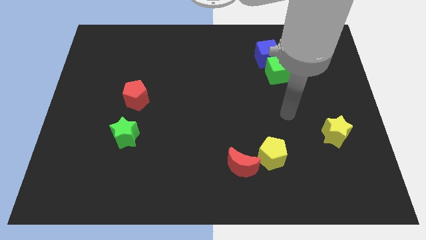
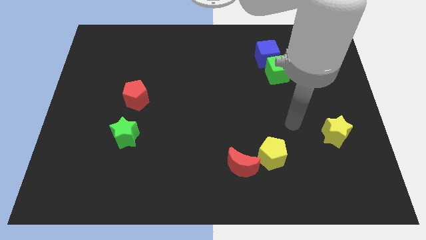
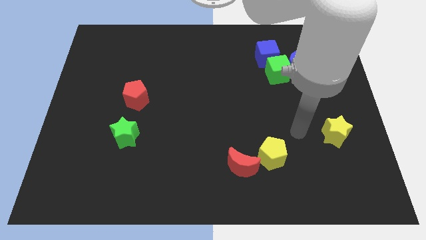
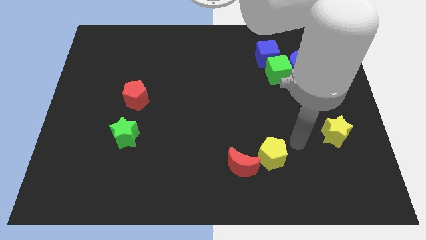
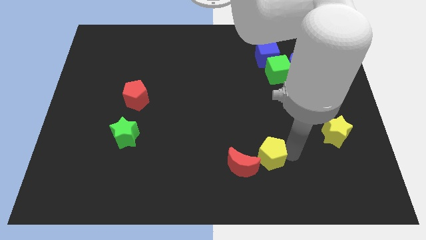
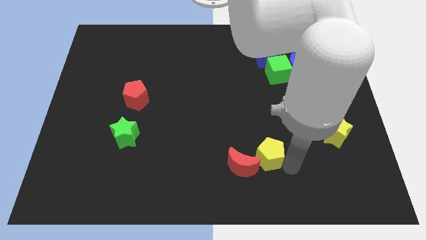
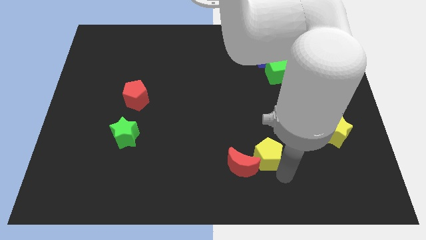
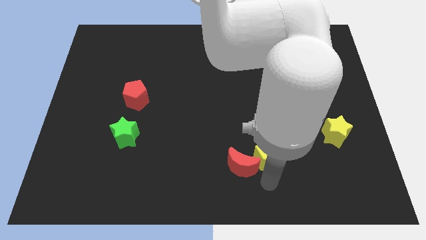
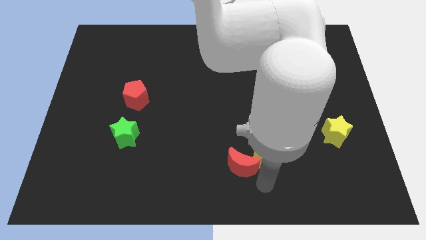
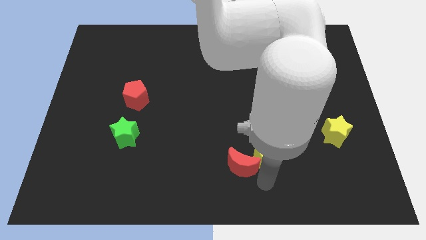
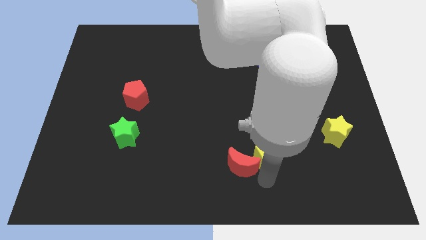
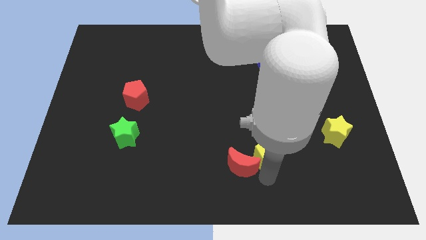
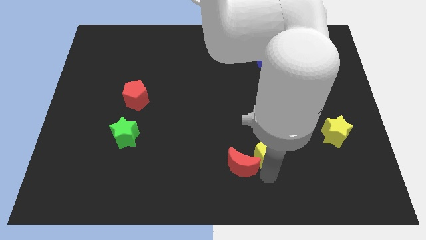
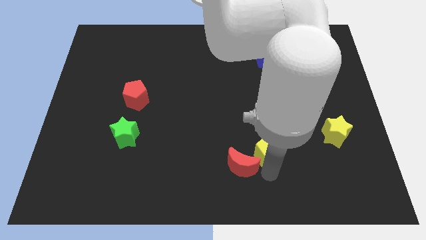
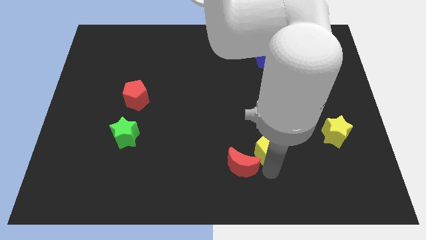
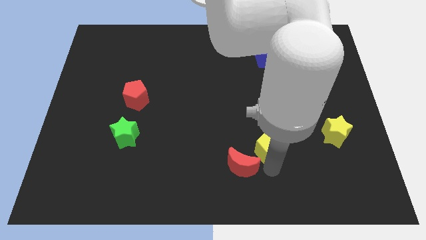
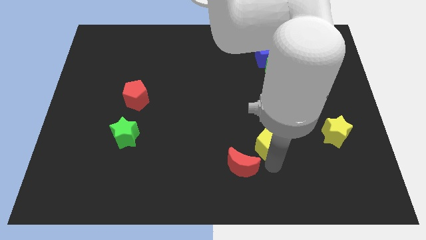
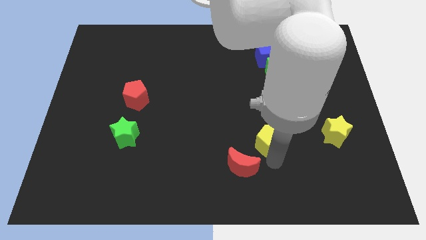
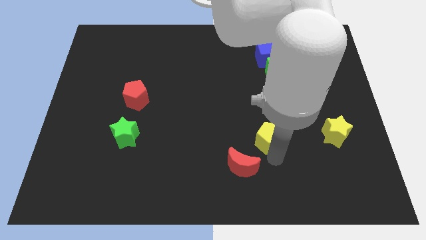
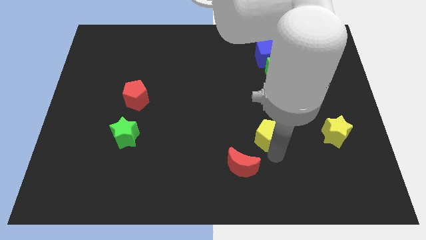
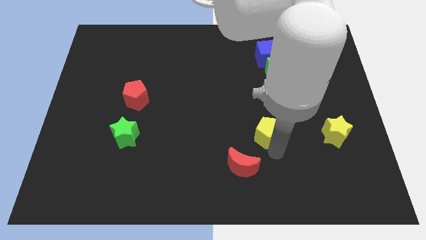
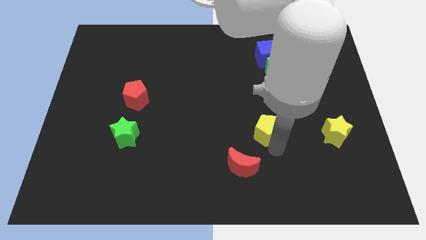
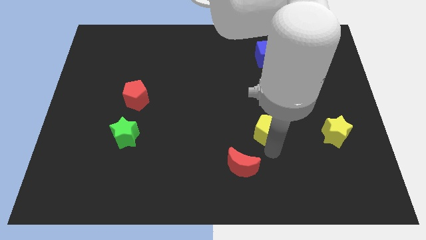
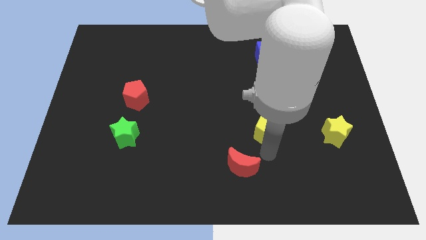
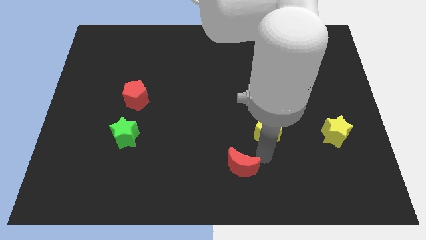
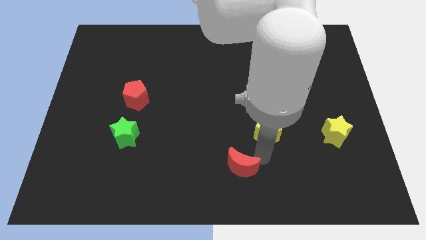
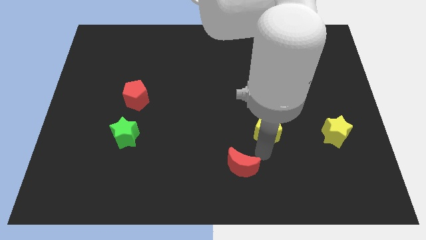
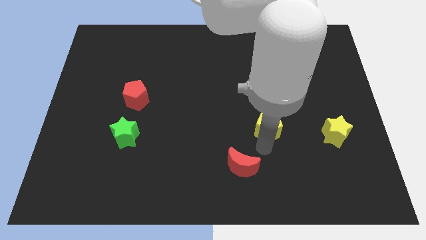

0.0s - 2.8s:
slightly push the yellow pentagon up

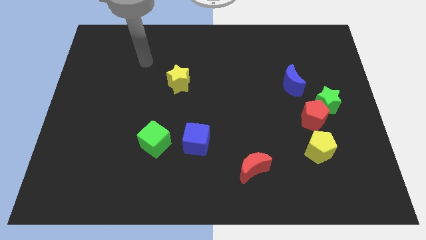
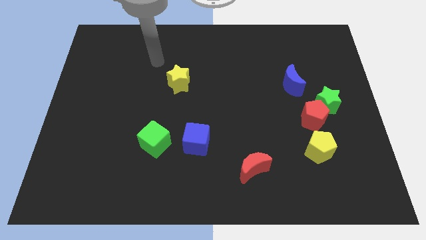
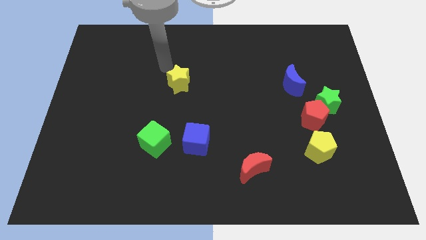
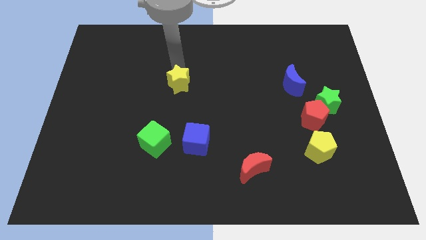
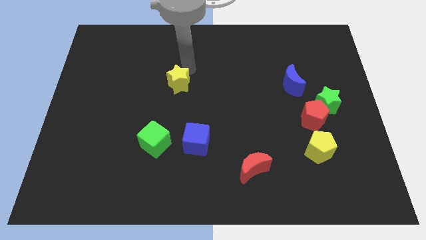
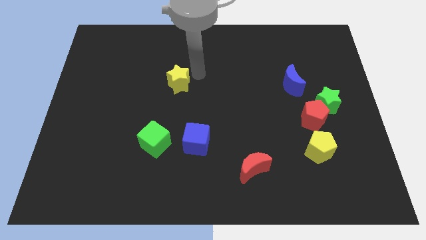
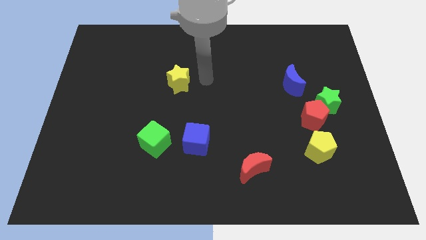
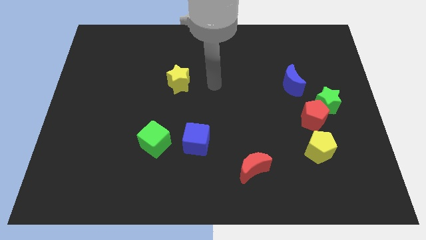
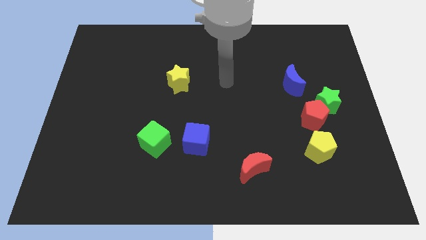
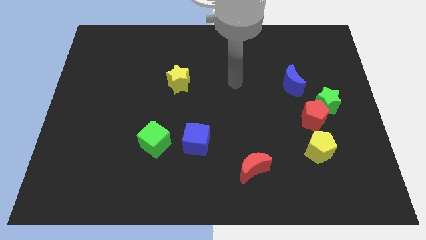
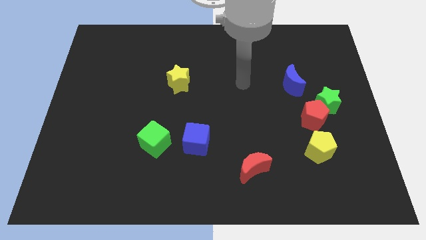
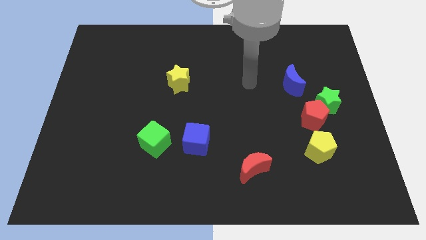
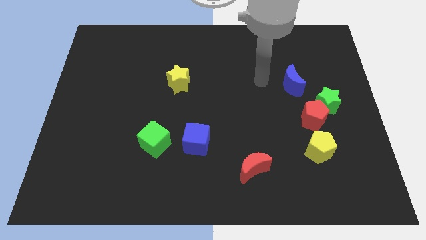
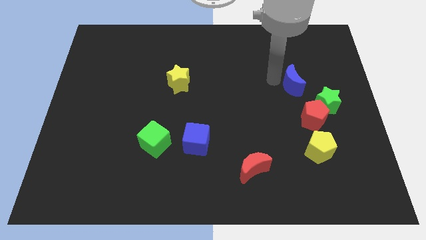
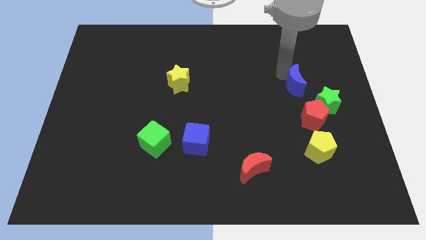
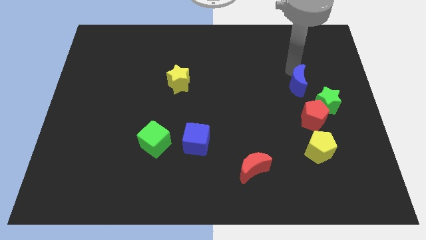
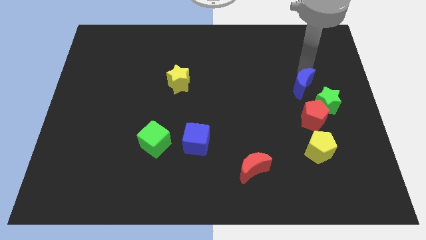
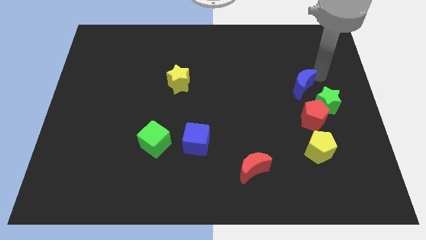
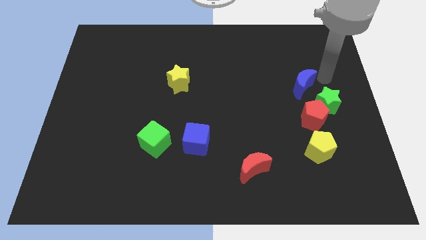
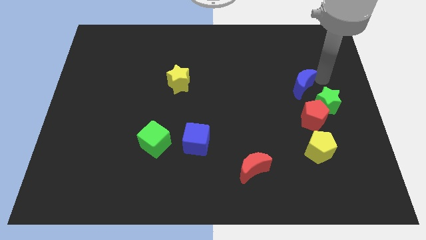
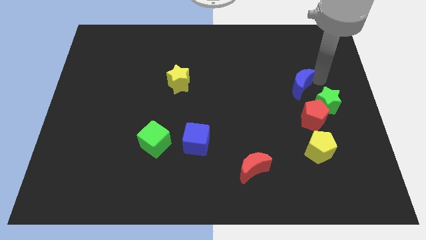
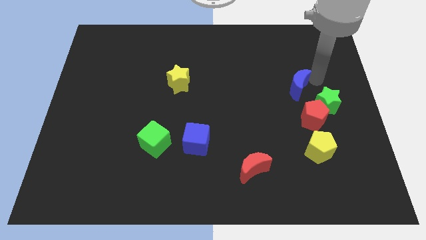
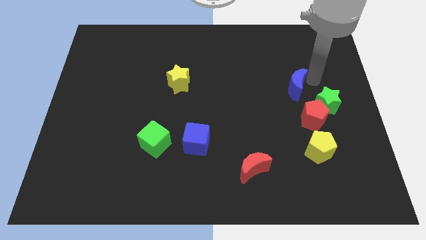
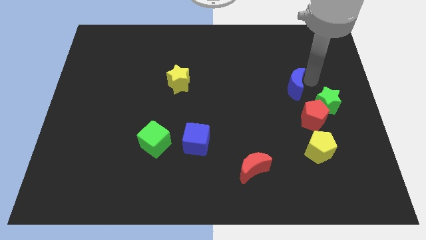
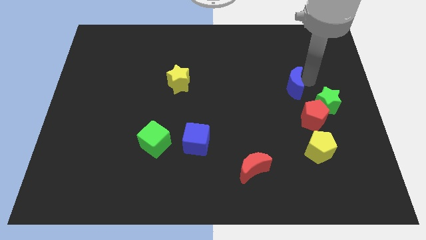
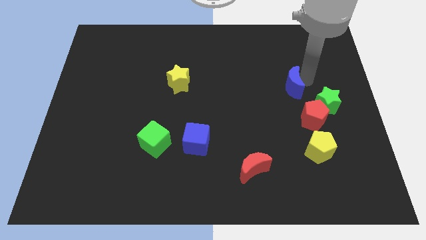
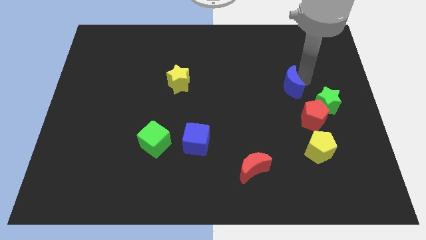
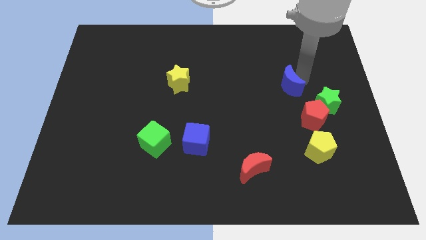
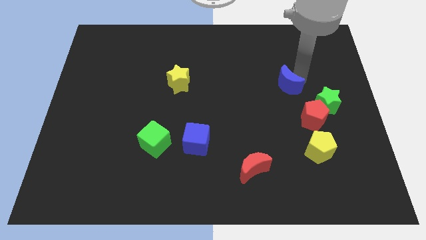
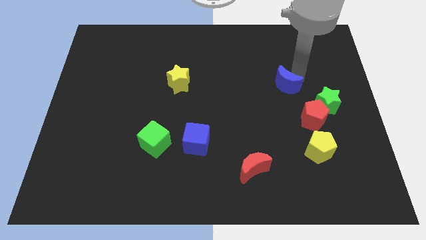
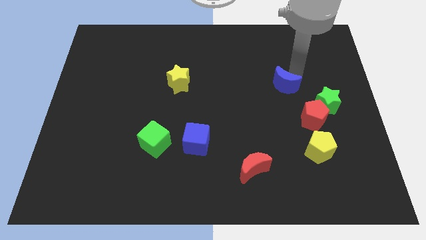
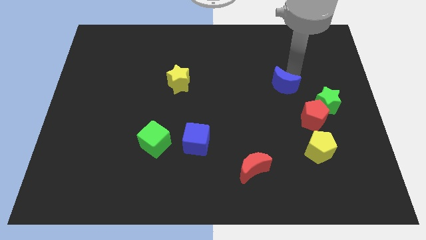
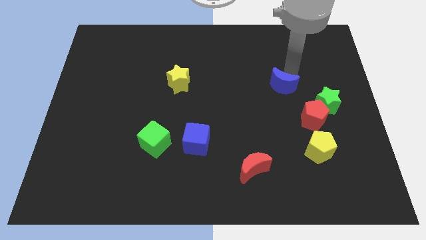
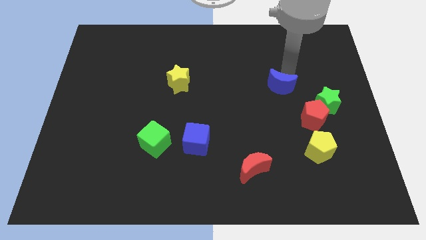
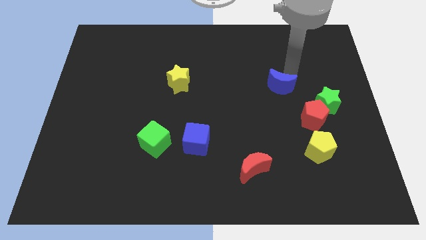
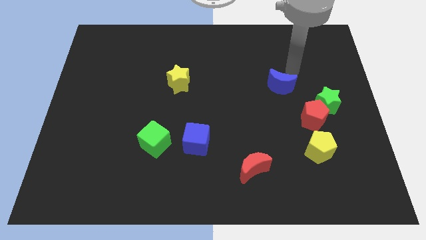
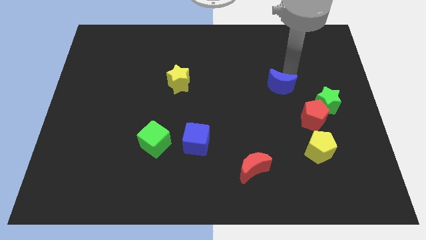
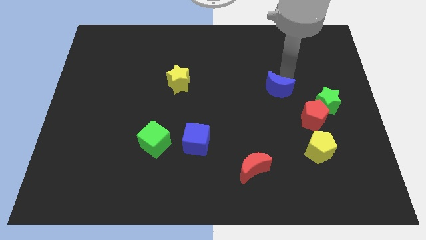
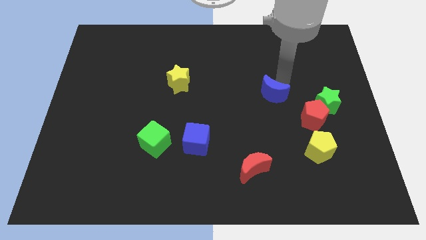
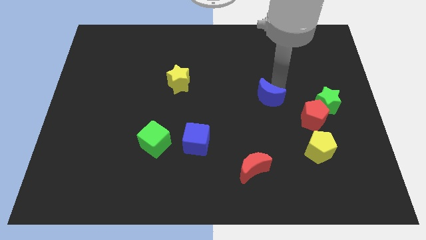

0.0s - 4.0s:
slide the blue moon somewhat downwards and to the left

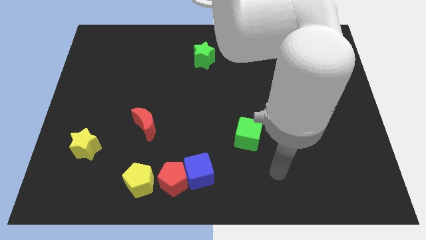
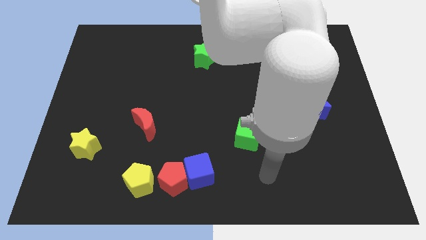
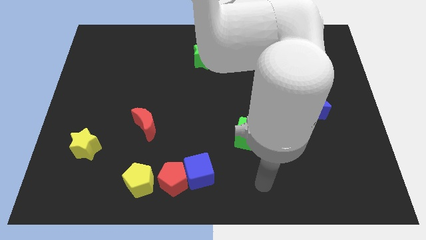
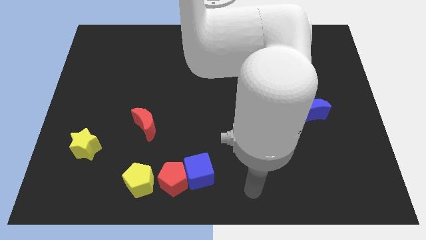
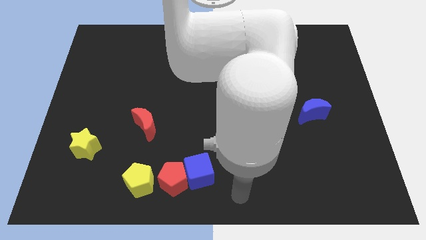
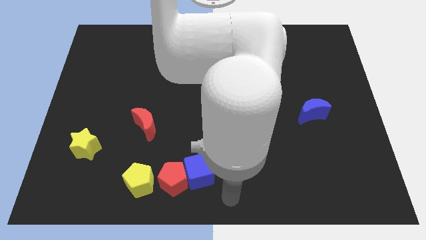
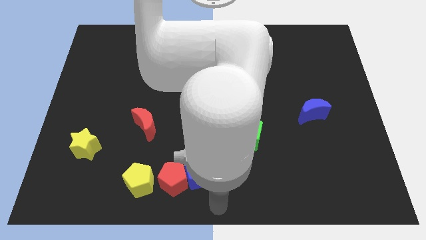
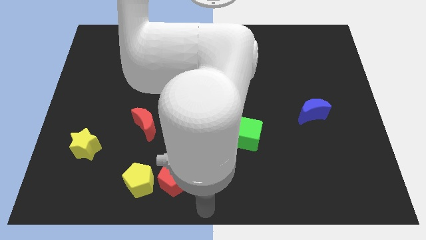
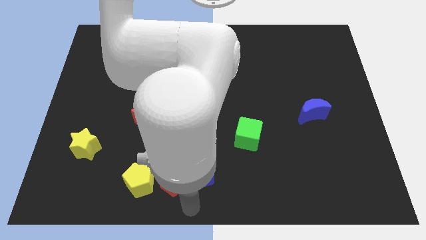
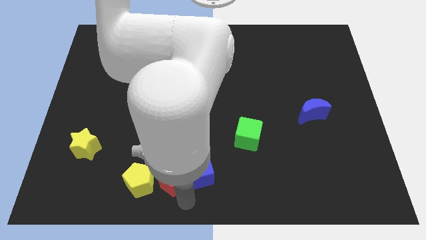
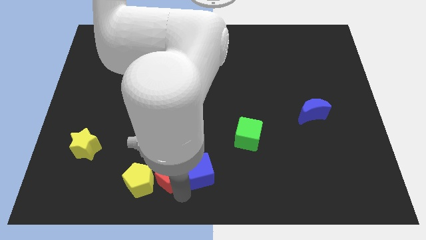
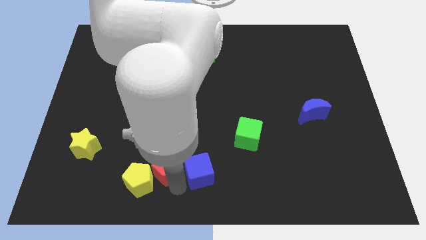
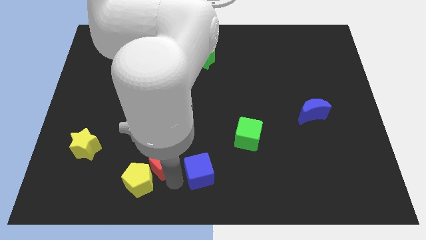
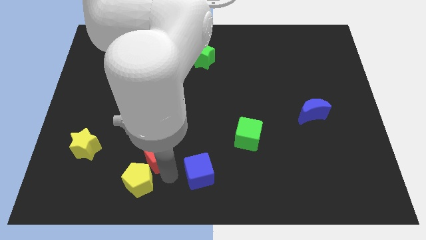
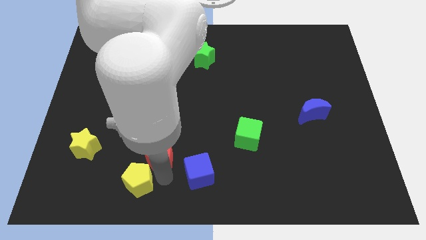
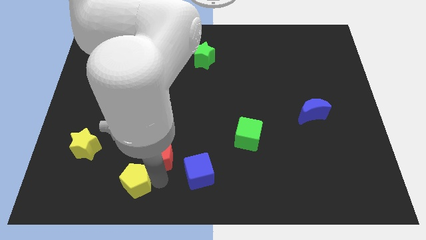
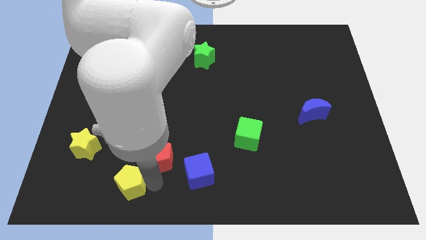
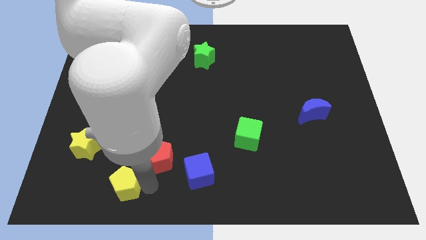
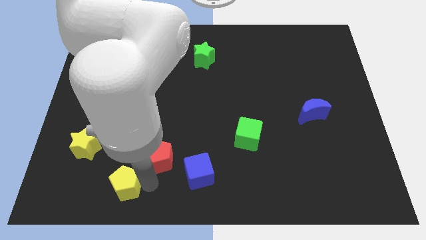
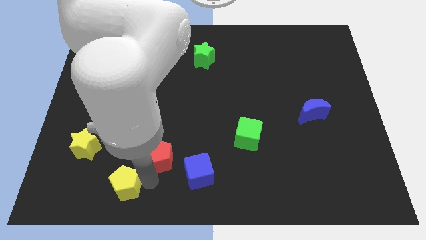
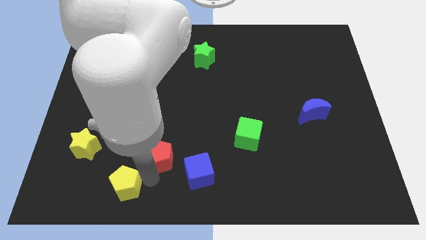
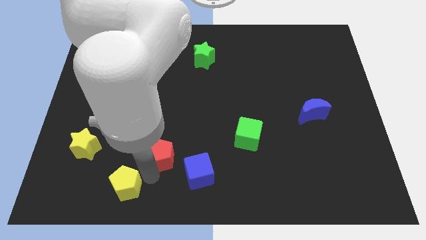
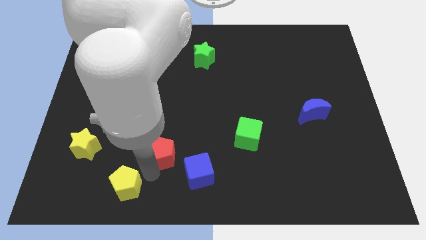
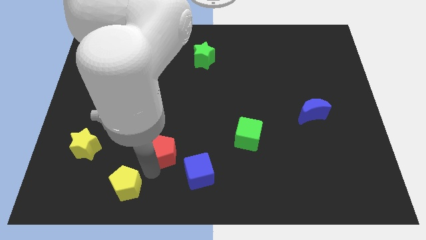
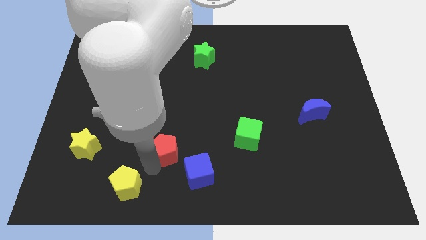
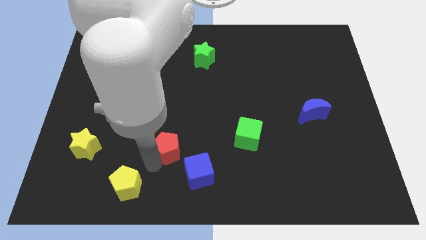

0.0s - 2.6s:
push the red pentagon upwards a little
